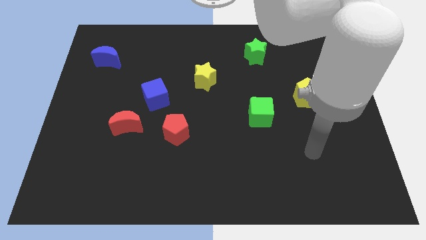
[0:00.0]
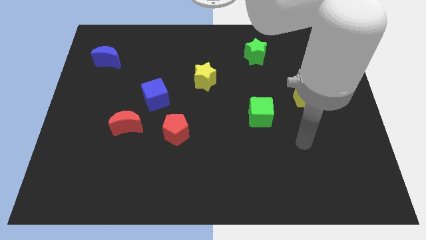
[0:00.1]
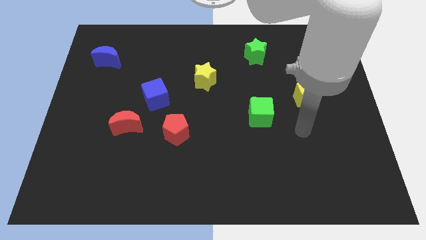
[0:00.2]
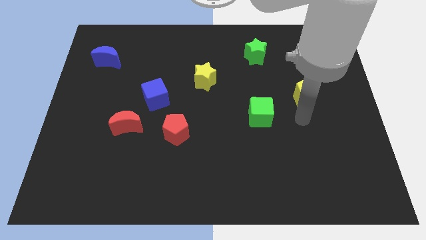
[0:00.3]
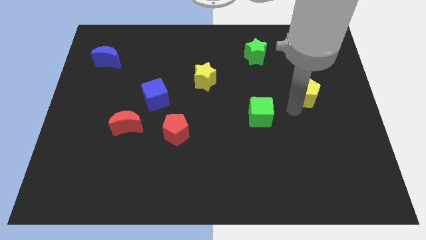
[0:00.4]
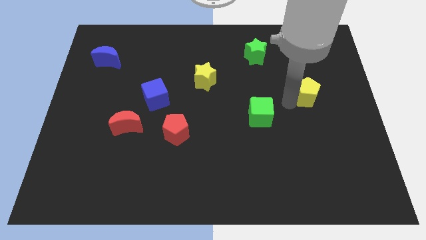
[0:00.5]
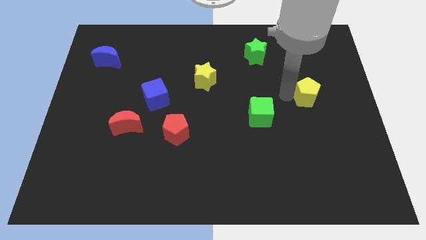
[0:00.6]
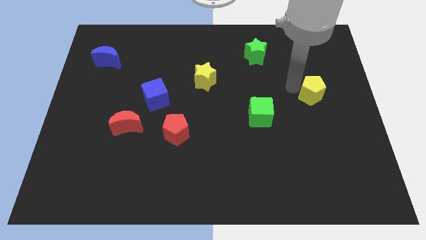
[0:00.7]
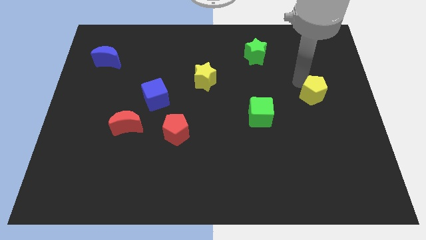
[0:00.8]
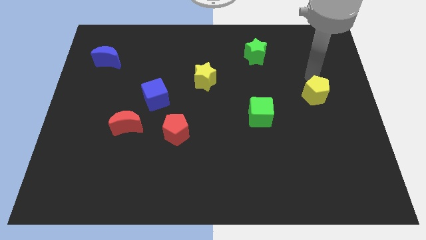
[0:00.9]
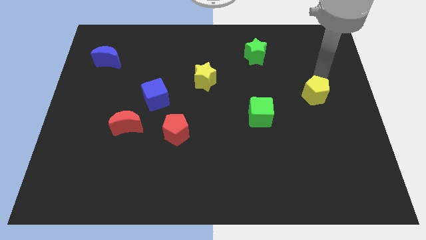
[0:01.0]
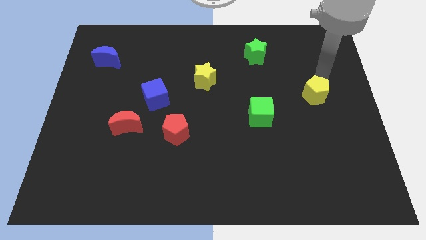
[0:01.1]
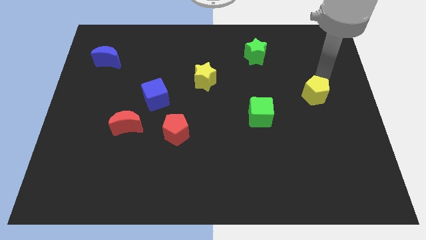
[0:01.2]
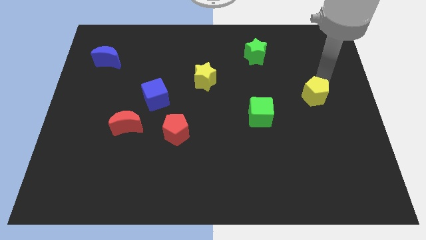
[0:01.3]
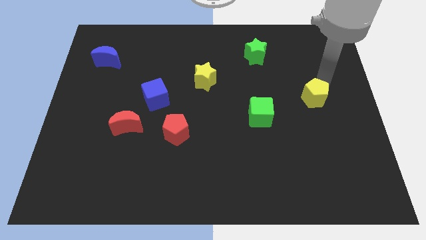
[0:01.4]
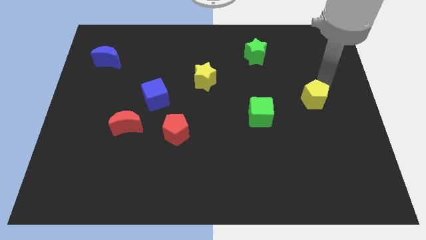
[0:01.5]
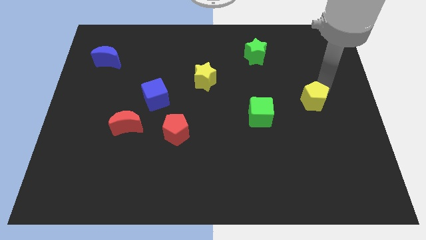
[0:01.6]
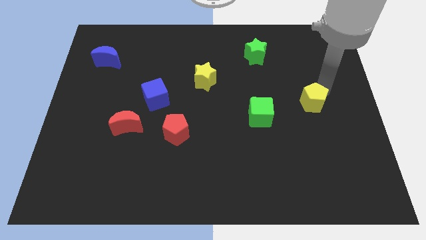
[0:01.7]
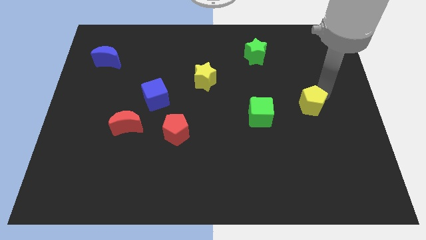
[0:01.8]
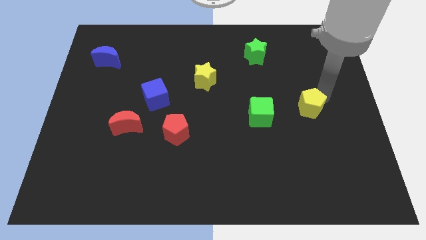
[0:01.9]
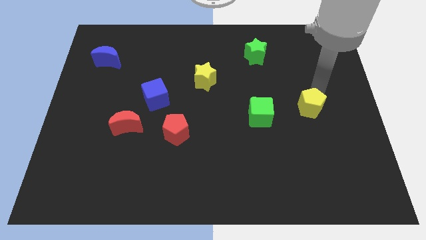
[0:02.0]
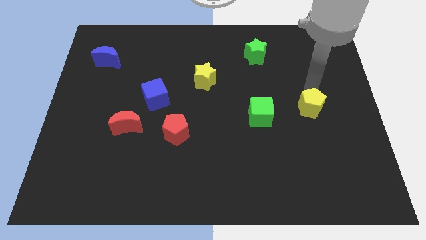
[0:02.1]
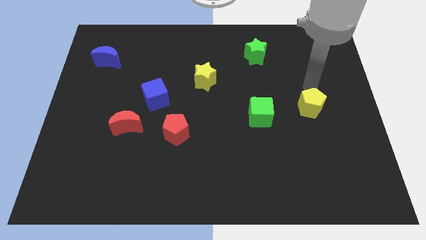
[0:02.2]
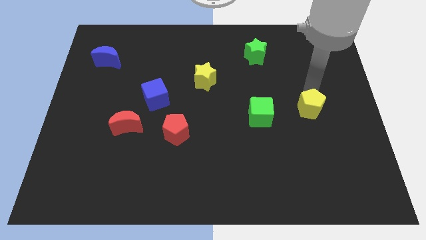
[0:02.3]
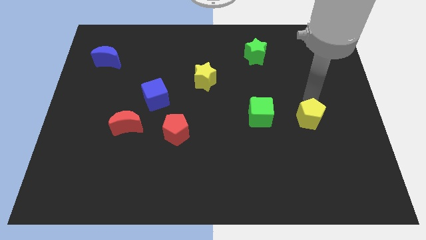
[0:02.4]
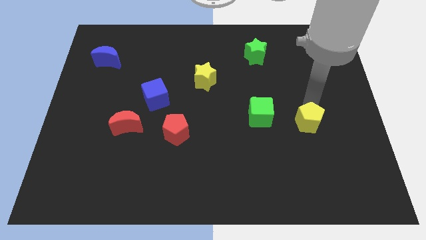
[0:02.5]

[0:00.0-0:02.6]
slide the yellow pentagon slightly down

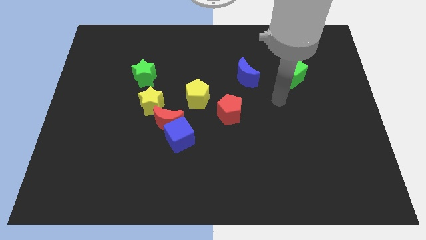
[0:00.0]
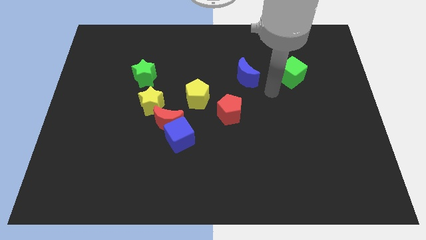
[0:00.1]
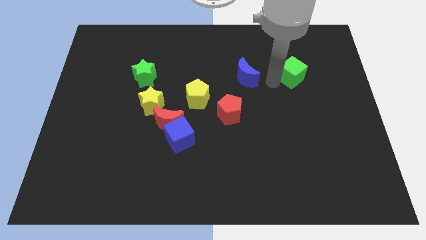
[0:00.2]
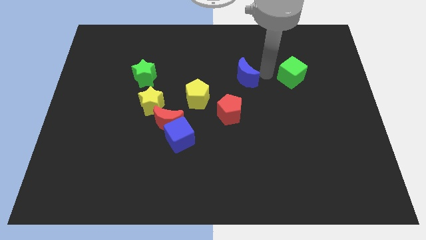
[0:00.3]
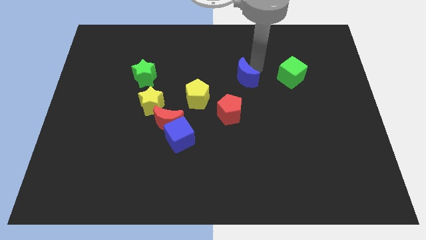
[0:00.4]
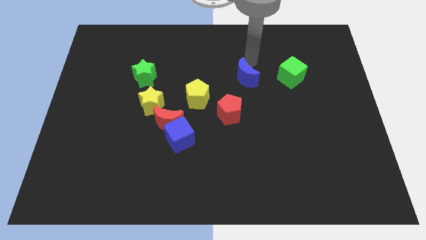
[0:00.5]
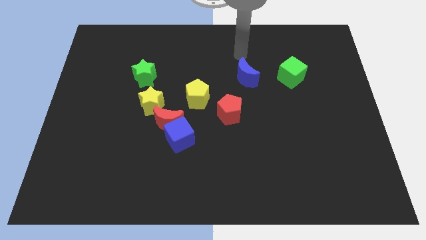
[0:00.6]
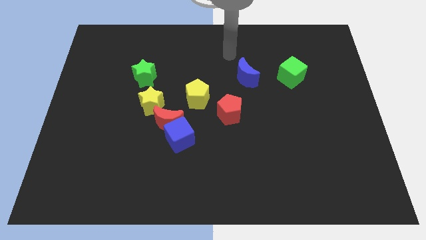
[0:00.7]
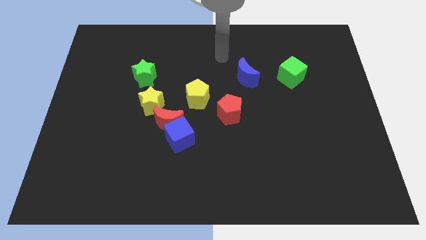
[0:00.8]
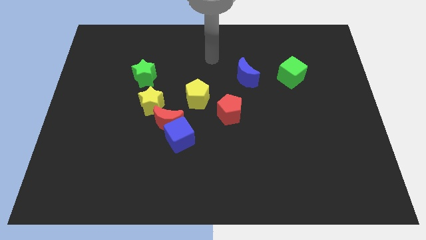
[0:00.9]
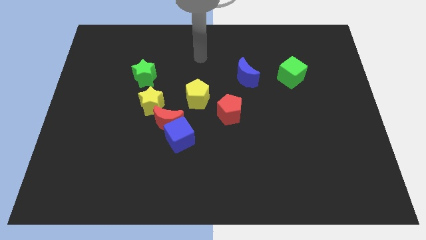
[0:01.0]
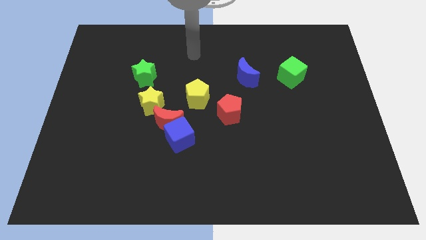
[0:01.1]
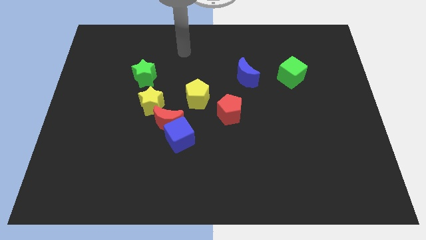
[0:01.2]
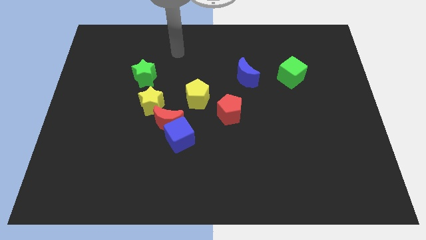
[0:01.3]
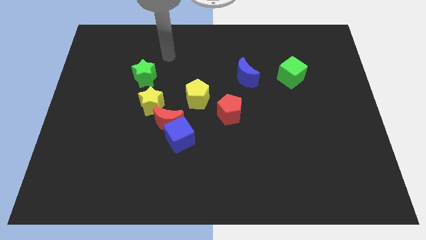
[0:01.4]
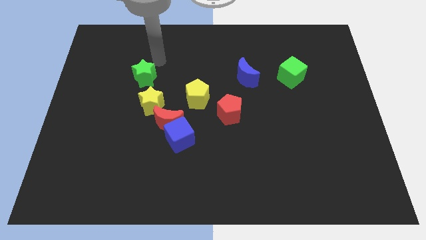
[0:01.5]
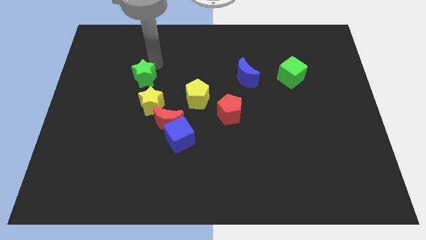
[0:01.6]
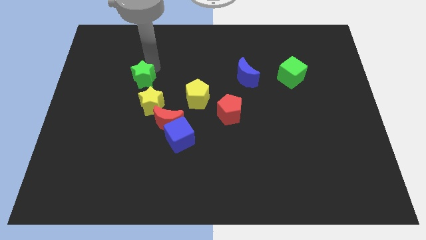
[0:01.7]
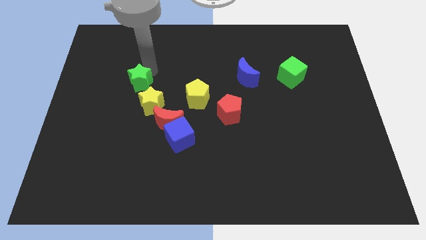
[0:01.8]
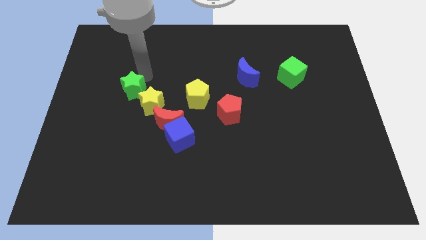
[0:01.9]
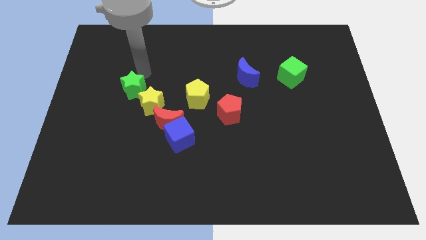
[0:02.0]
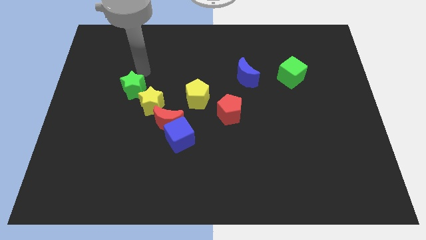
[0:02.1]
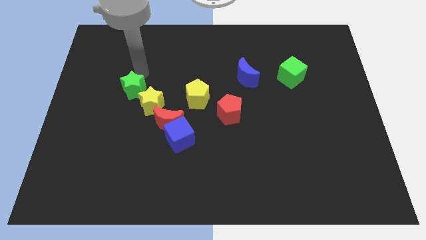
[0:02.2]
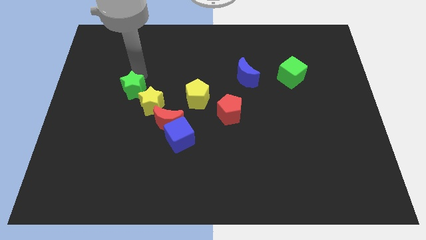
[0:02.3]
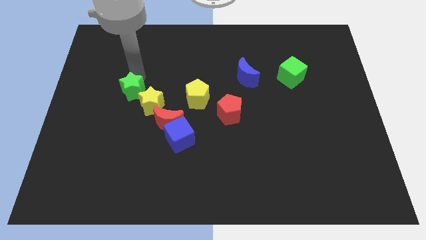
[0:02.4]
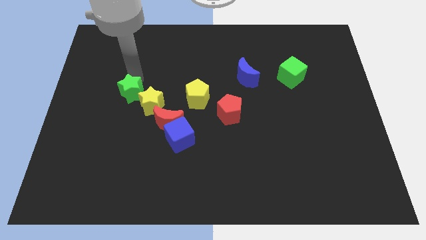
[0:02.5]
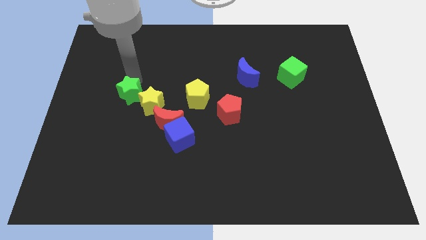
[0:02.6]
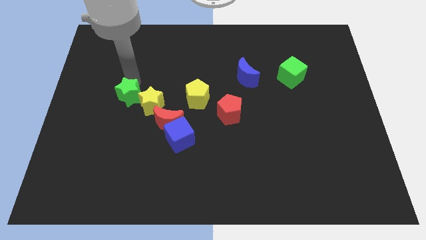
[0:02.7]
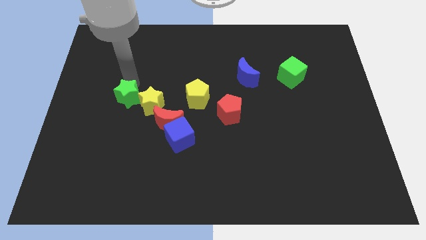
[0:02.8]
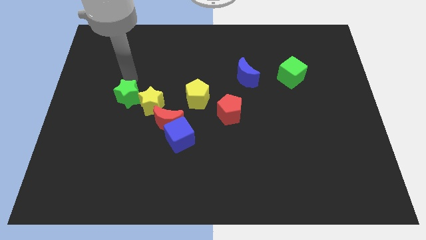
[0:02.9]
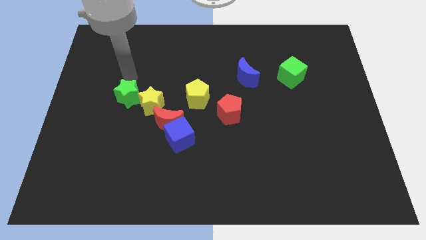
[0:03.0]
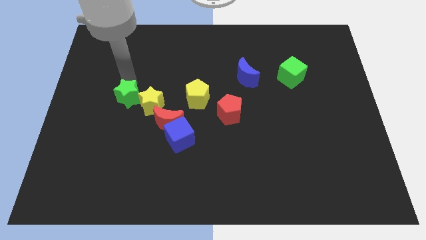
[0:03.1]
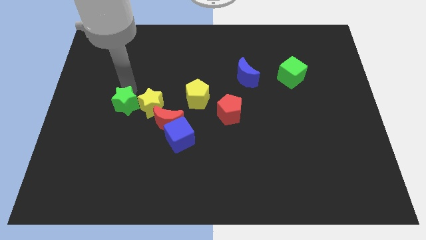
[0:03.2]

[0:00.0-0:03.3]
move the green star a little down

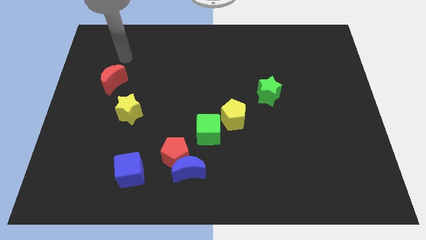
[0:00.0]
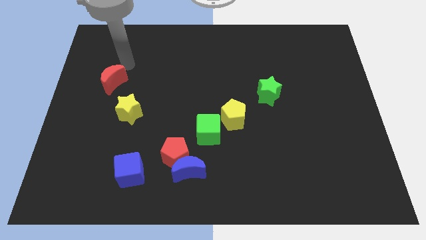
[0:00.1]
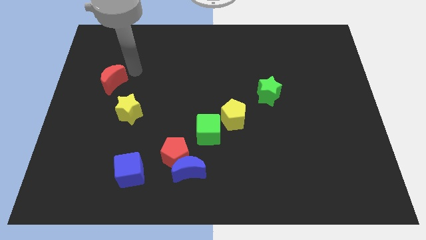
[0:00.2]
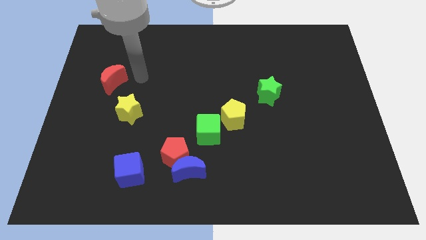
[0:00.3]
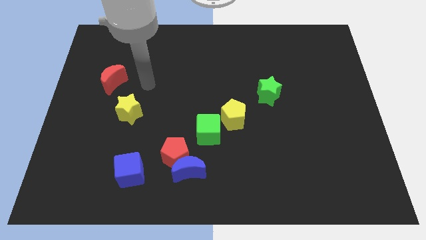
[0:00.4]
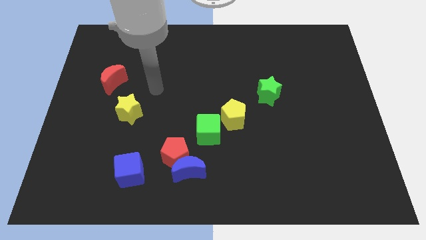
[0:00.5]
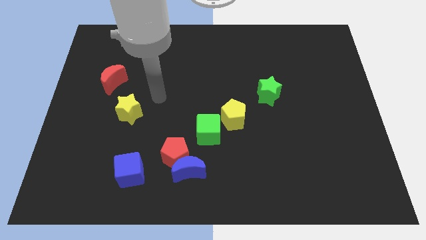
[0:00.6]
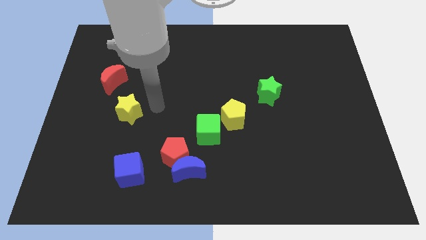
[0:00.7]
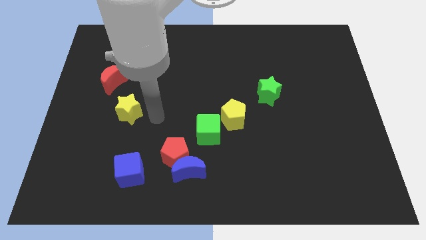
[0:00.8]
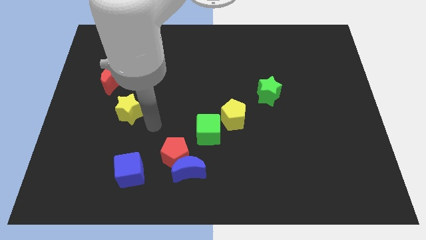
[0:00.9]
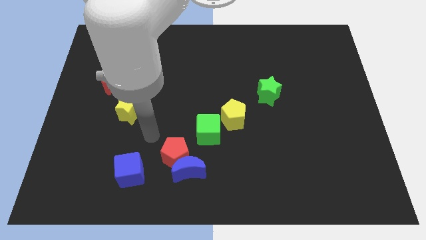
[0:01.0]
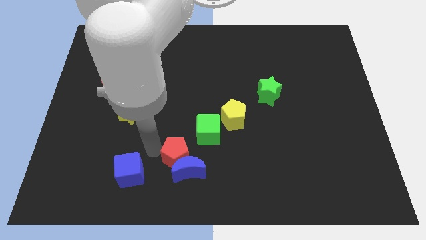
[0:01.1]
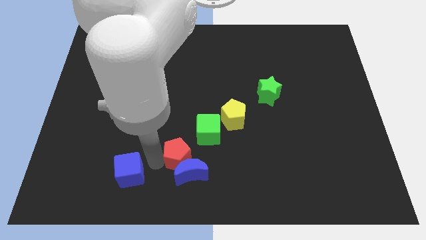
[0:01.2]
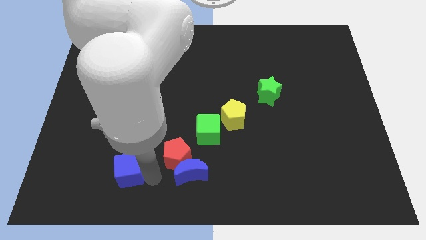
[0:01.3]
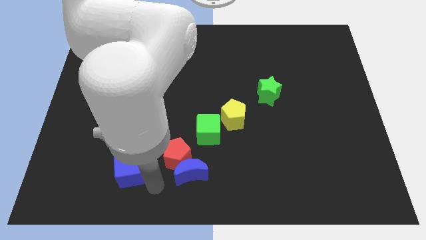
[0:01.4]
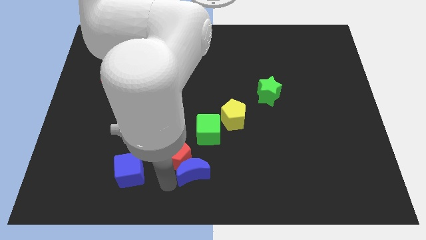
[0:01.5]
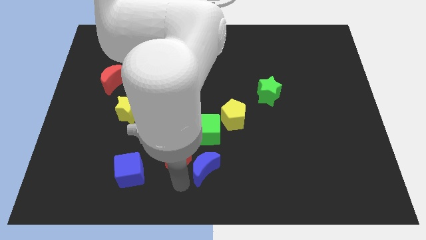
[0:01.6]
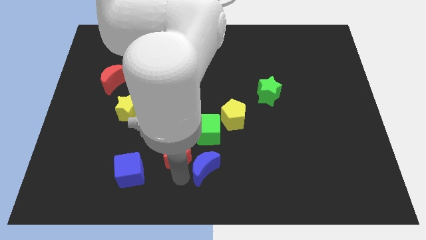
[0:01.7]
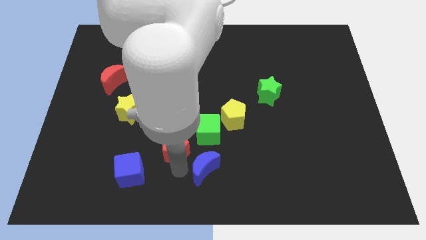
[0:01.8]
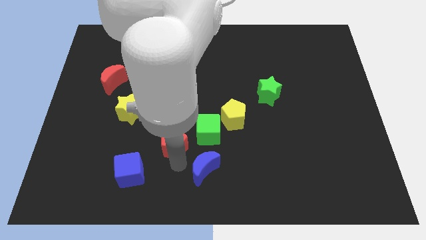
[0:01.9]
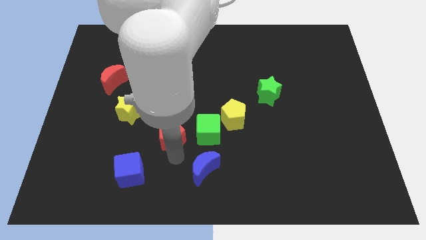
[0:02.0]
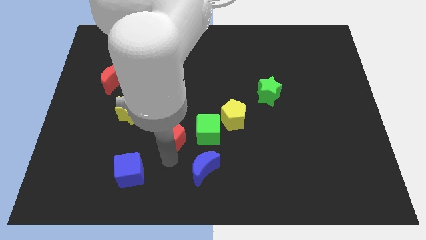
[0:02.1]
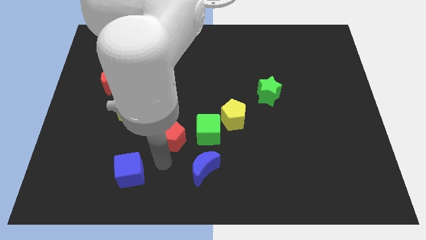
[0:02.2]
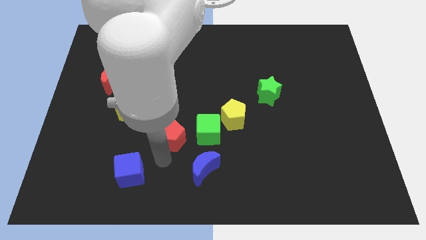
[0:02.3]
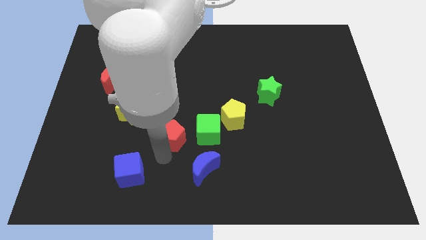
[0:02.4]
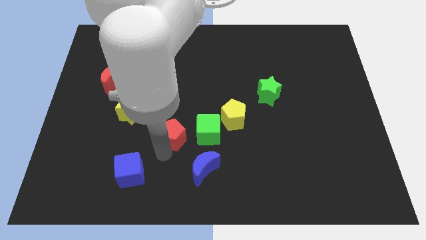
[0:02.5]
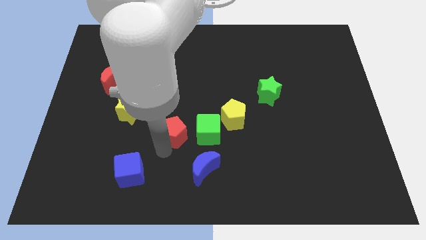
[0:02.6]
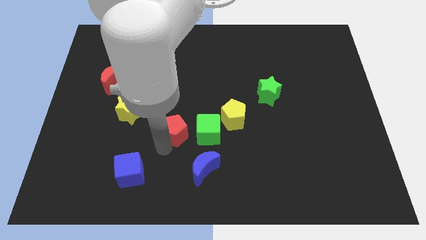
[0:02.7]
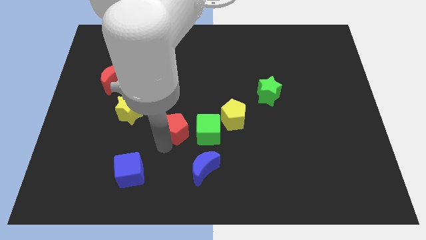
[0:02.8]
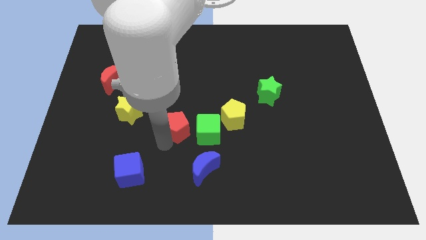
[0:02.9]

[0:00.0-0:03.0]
slightly push the red pentagon upwards
